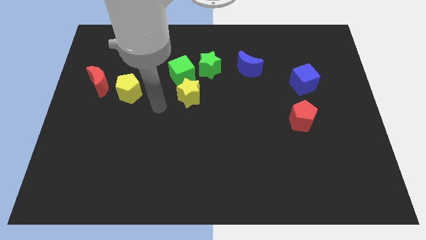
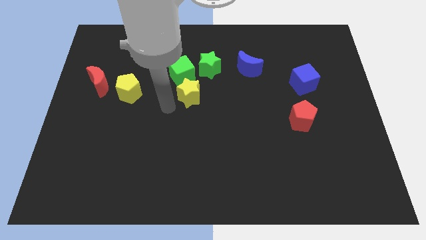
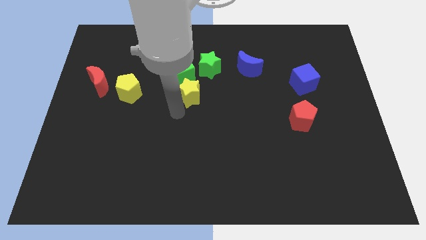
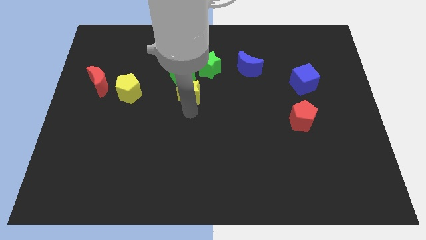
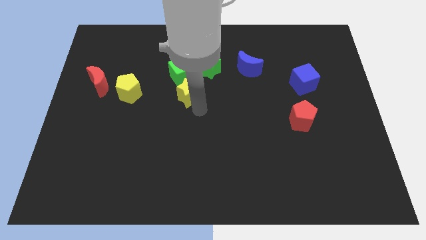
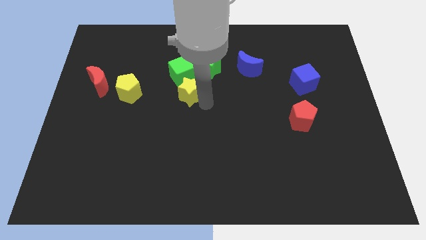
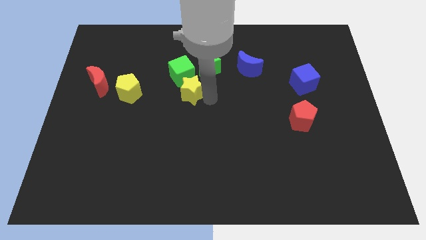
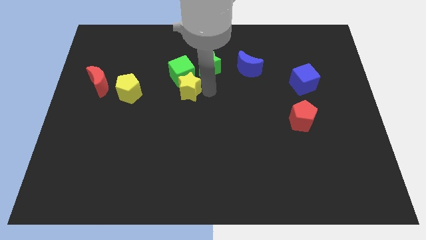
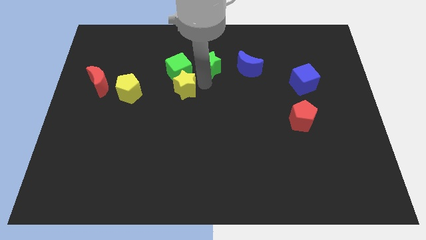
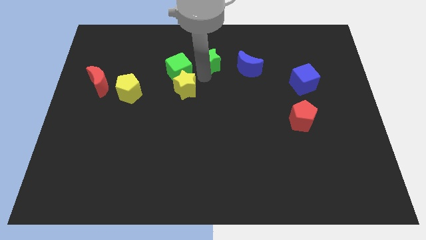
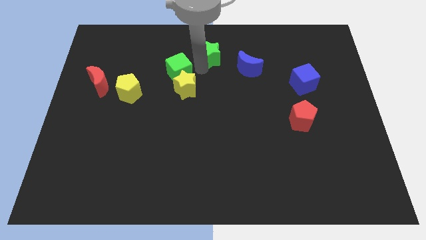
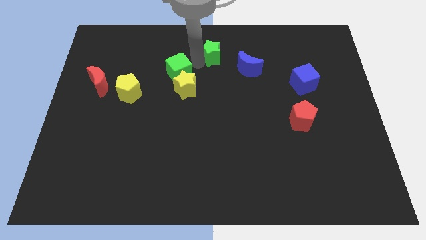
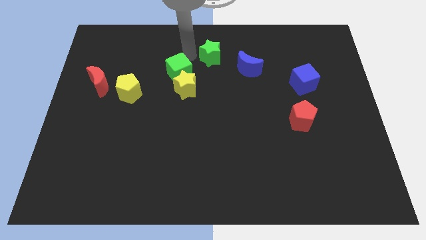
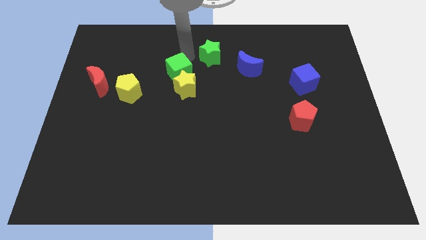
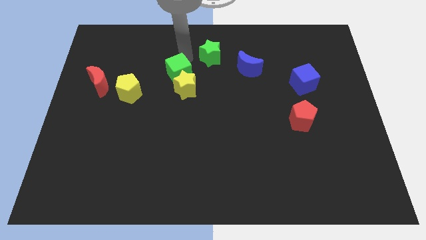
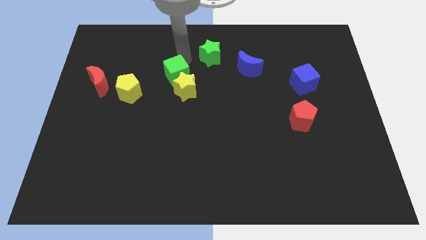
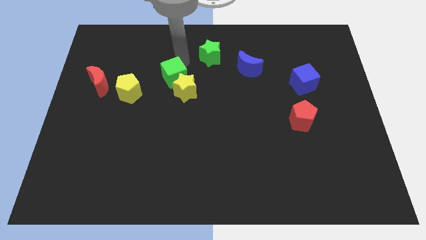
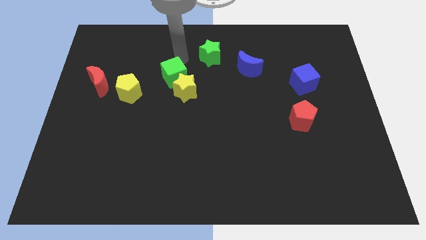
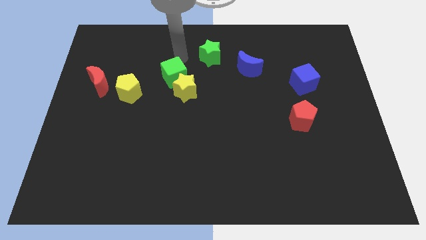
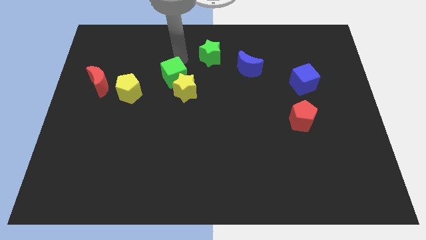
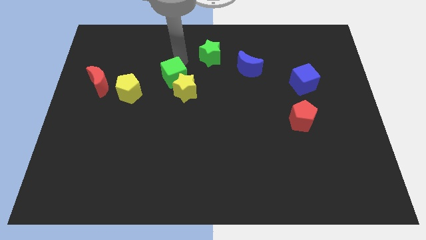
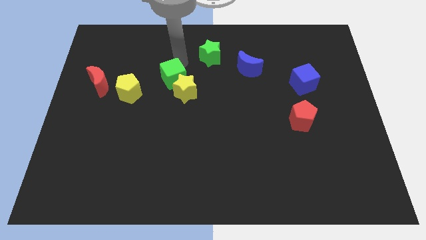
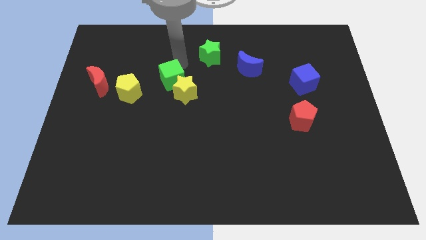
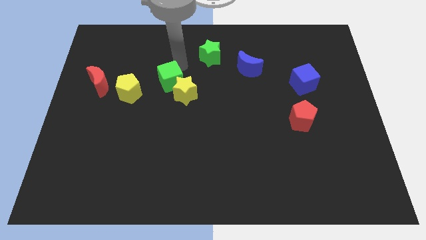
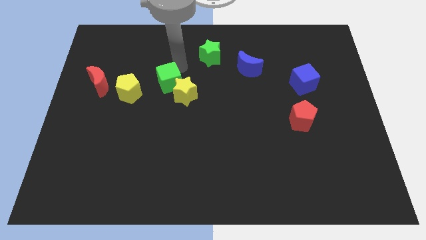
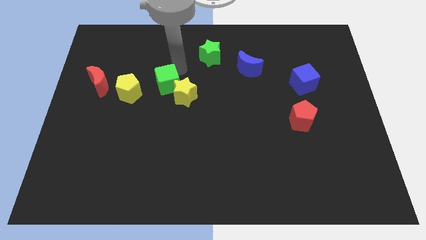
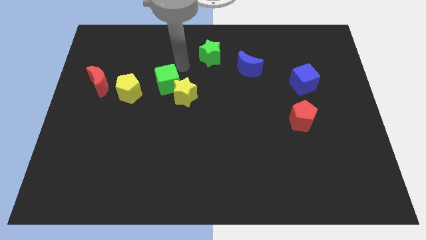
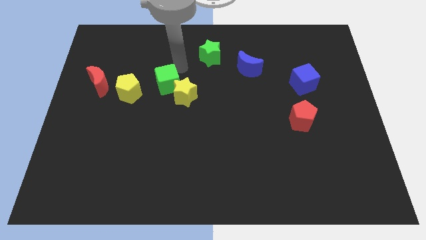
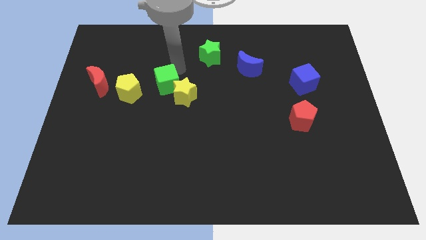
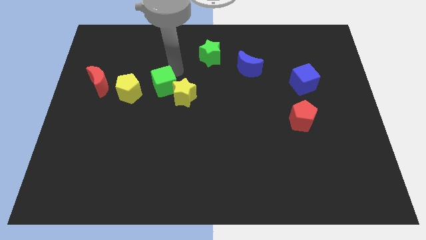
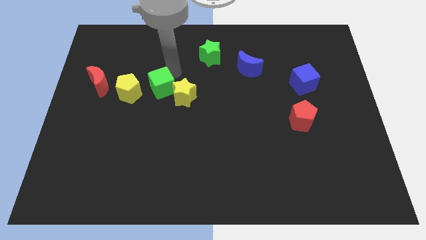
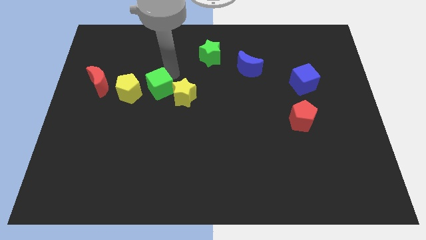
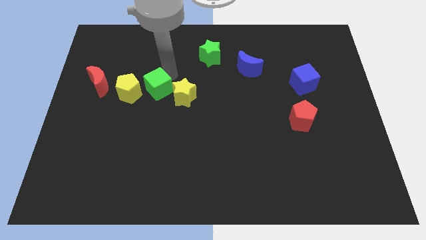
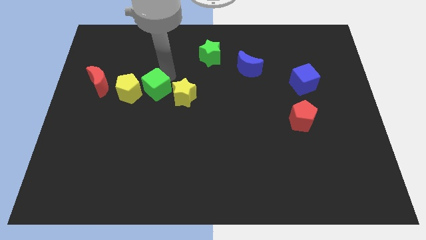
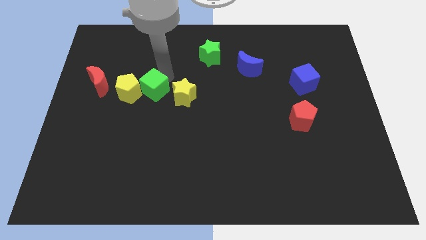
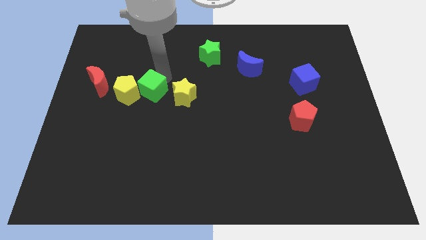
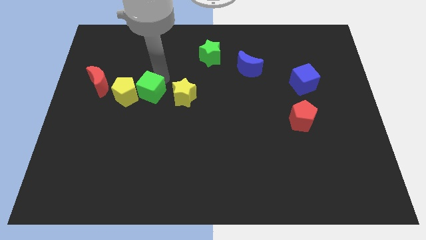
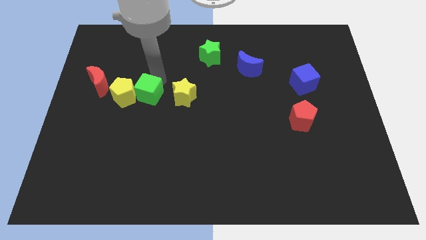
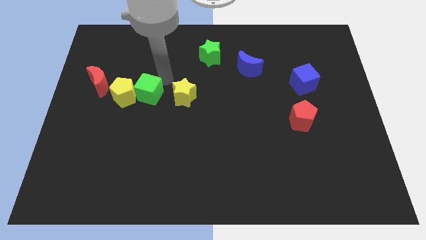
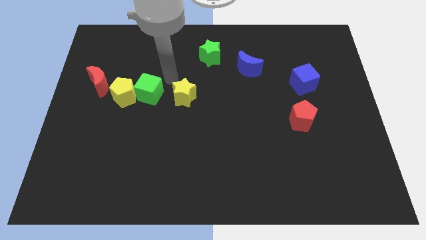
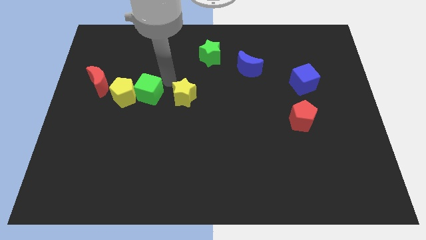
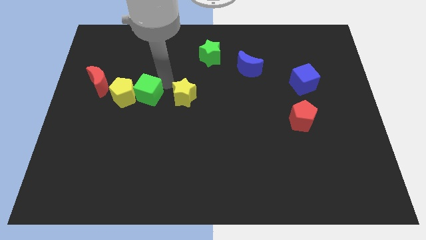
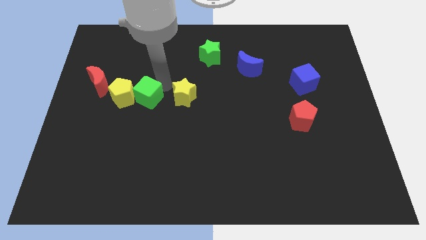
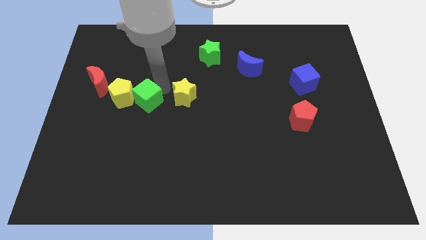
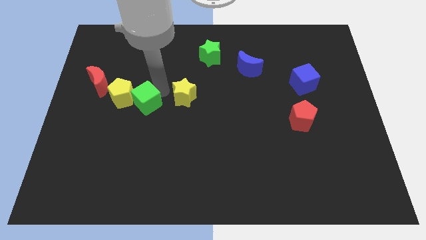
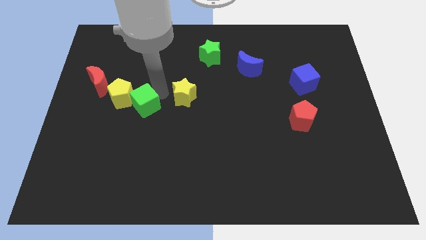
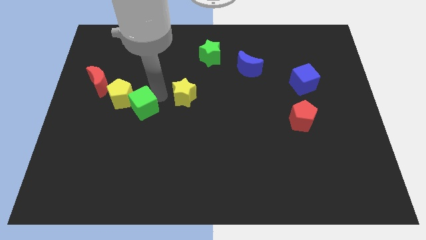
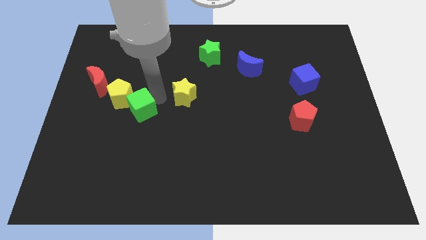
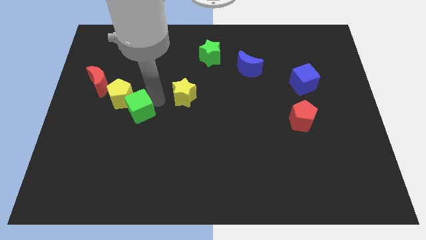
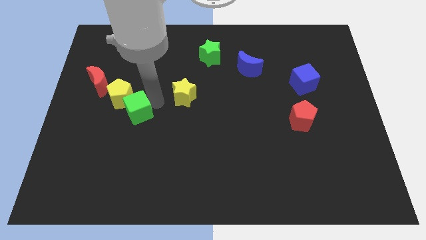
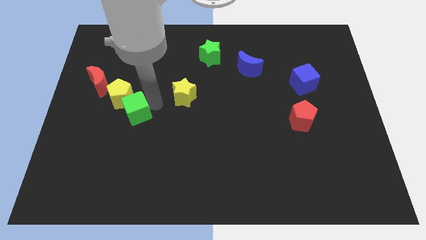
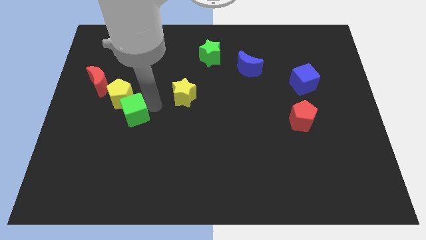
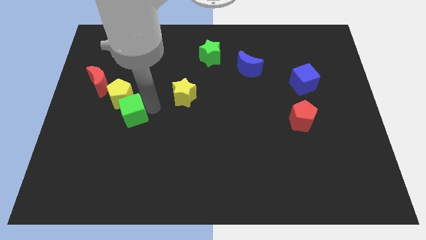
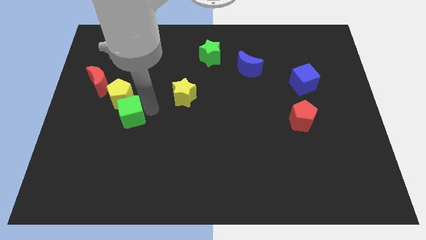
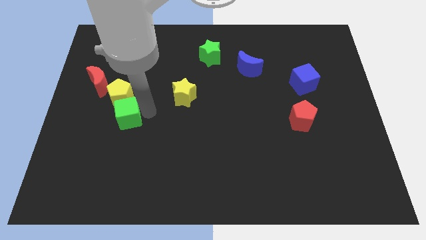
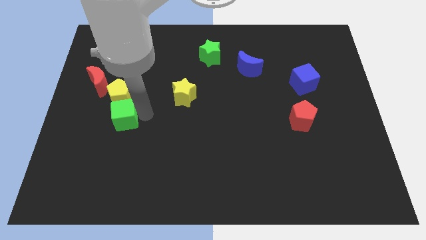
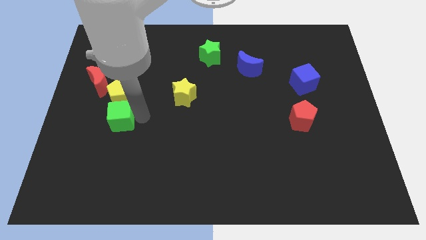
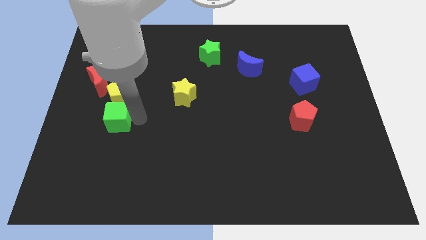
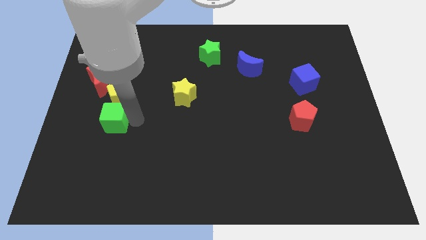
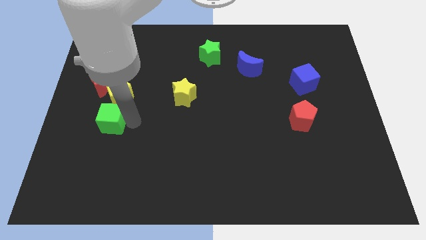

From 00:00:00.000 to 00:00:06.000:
move the green cube below the red moon

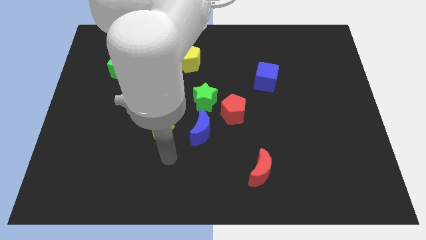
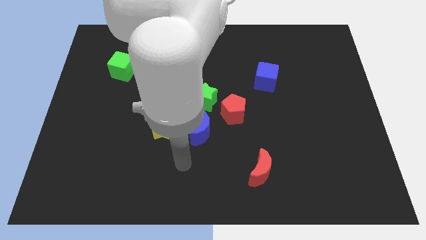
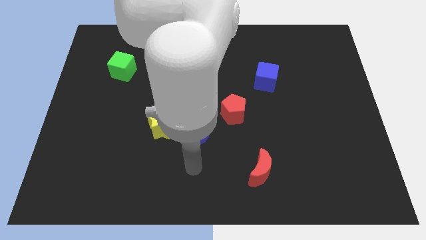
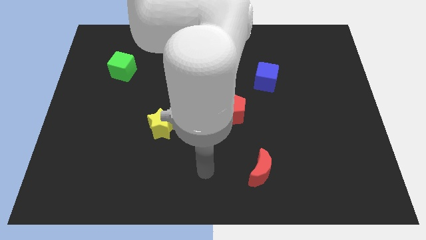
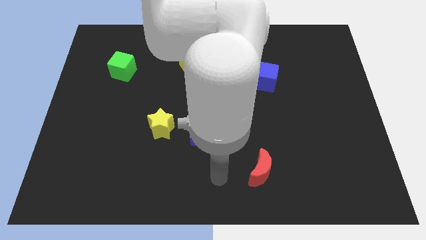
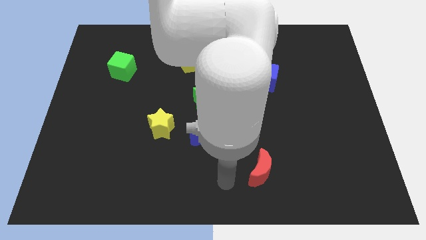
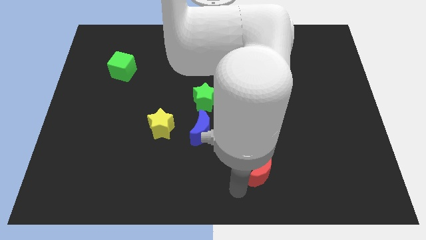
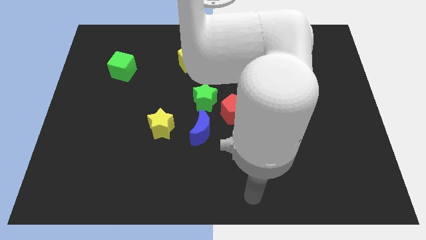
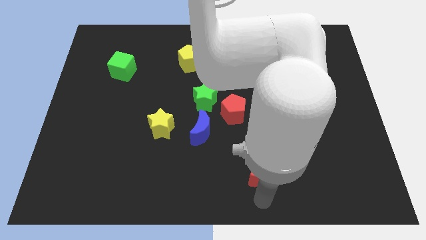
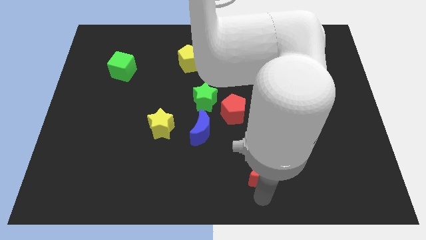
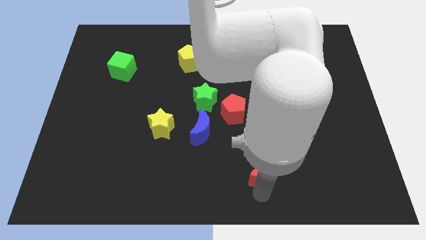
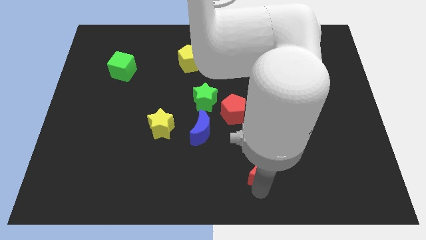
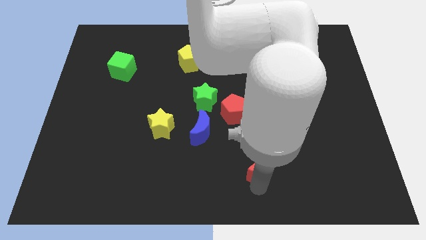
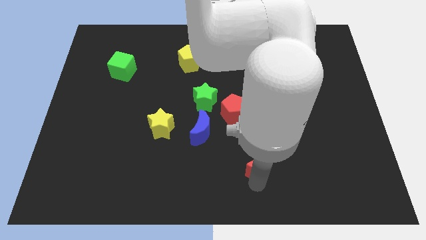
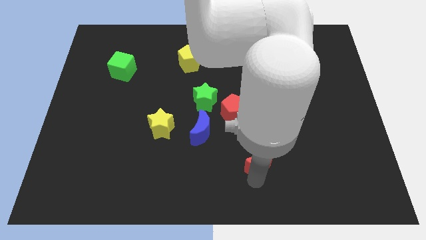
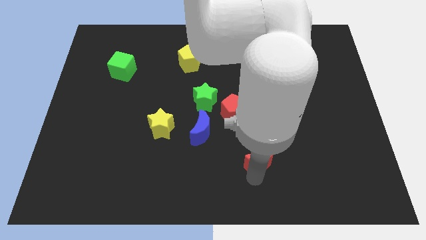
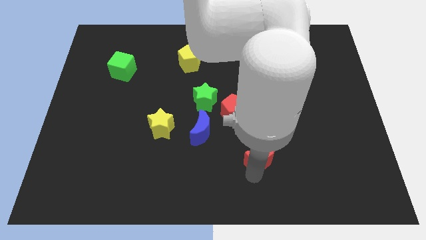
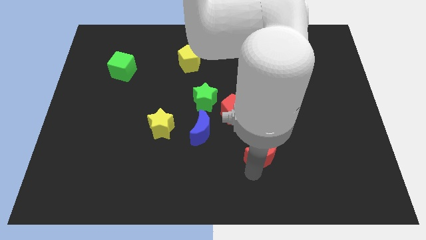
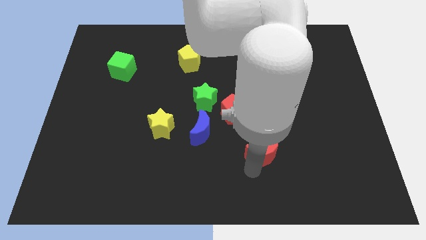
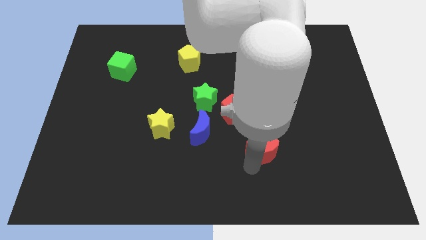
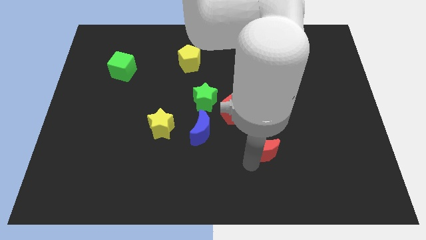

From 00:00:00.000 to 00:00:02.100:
put the red moon to the bottom right of the red pentagon
